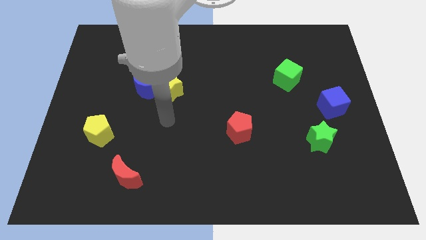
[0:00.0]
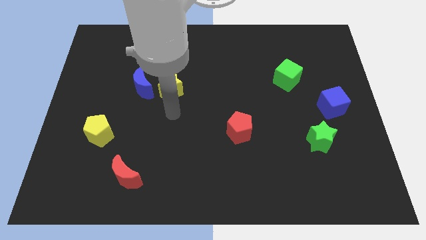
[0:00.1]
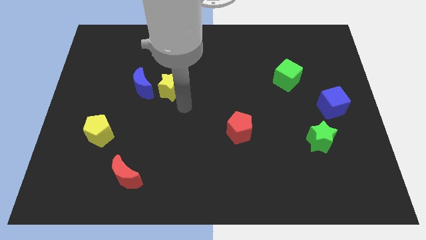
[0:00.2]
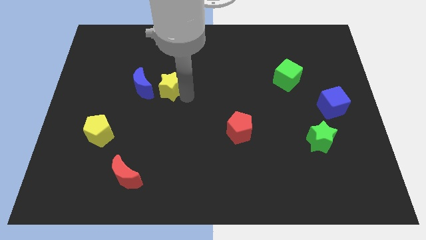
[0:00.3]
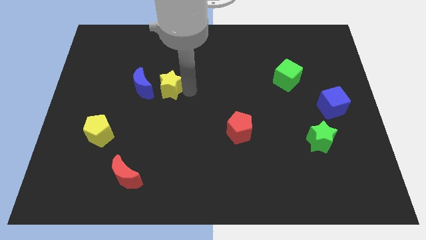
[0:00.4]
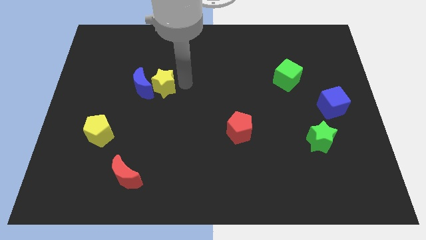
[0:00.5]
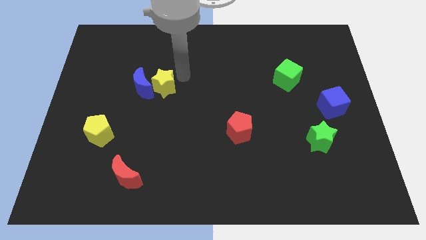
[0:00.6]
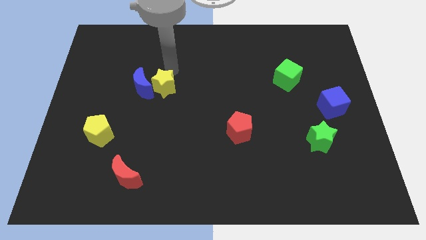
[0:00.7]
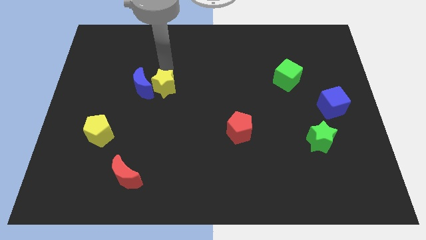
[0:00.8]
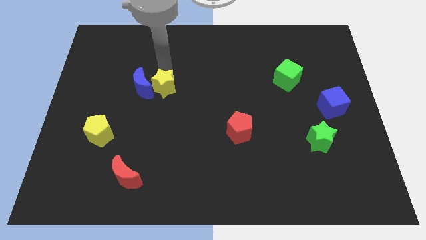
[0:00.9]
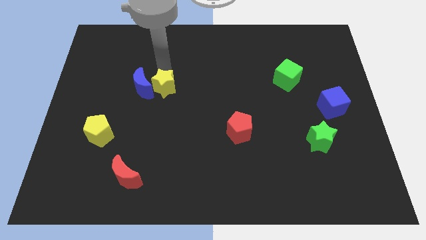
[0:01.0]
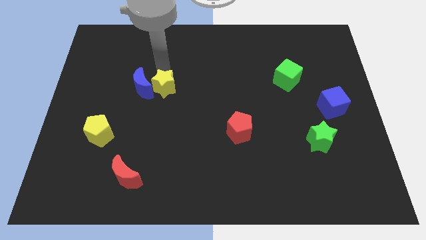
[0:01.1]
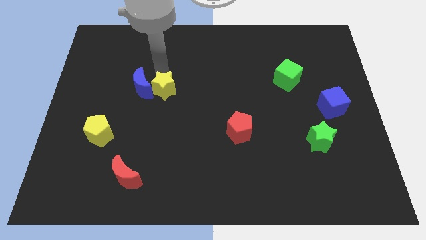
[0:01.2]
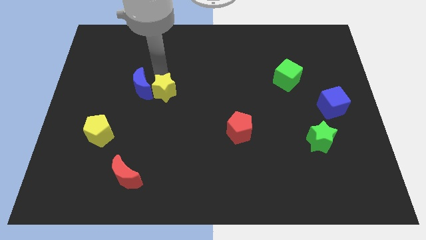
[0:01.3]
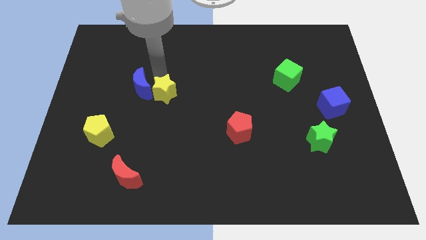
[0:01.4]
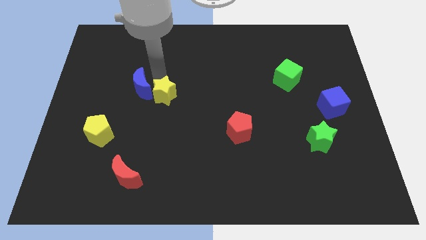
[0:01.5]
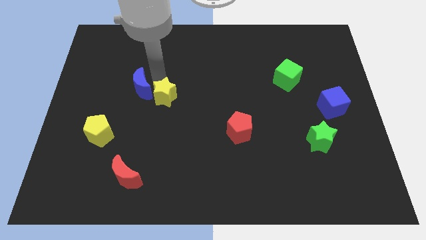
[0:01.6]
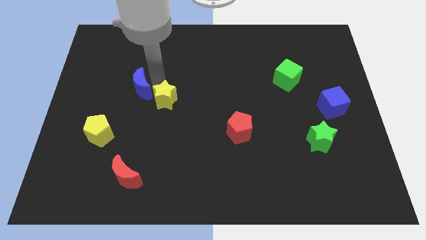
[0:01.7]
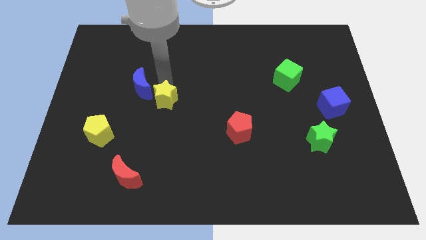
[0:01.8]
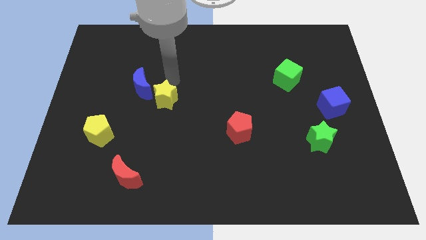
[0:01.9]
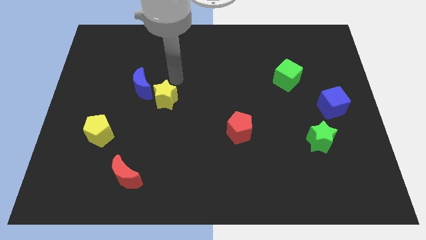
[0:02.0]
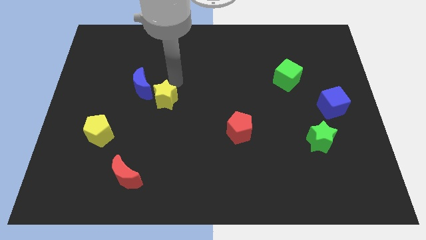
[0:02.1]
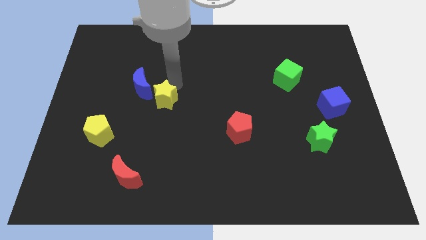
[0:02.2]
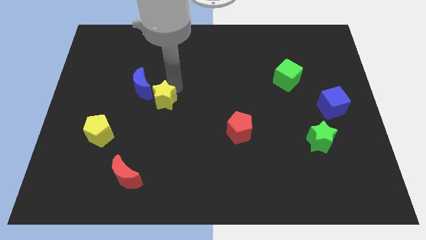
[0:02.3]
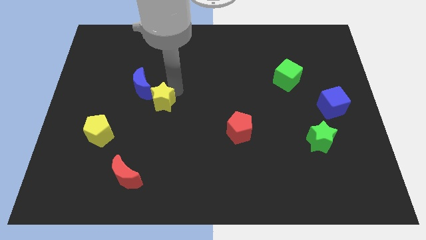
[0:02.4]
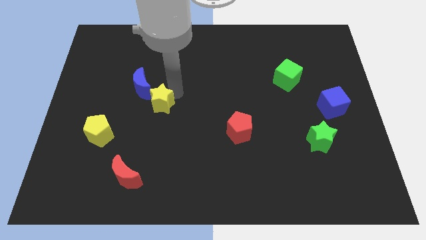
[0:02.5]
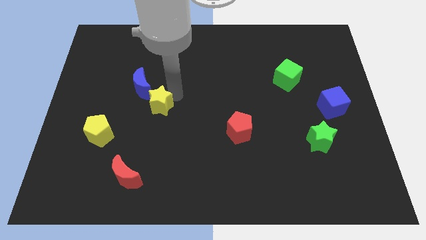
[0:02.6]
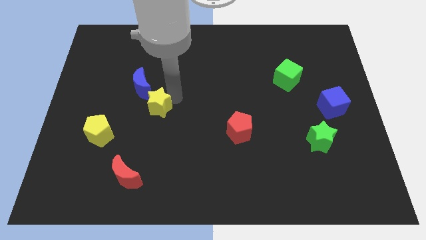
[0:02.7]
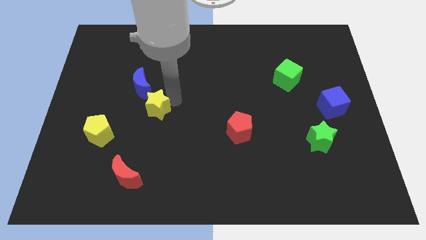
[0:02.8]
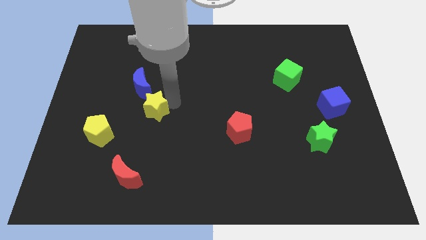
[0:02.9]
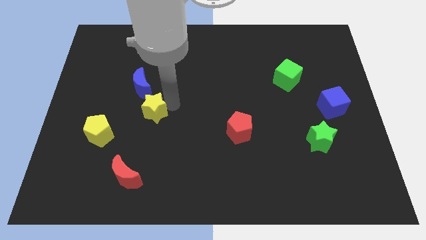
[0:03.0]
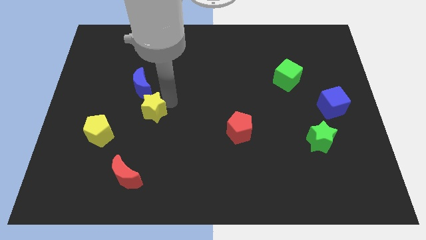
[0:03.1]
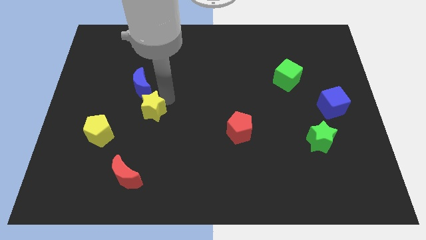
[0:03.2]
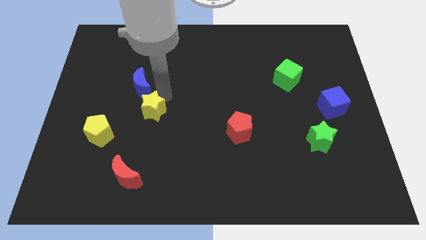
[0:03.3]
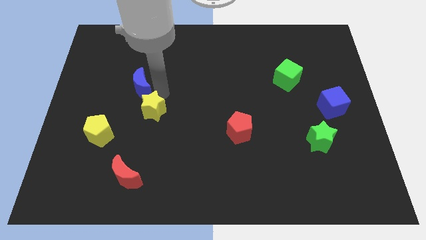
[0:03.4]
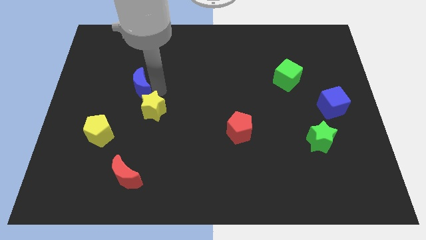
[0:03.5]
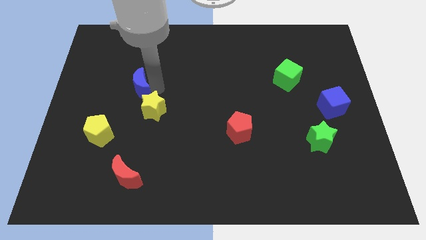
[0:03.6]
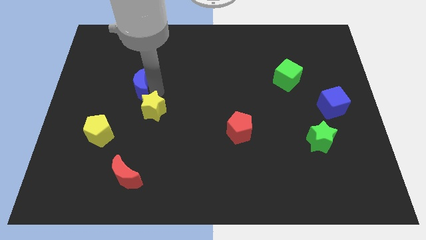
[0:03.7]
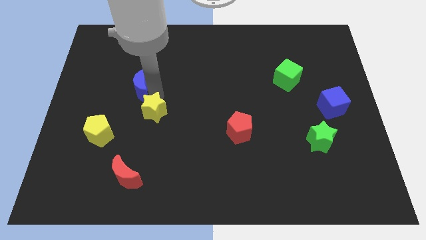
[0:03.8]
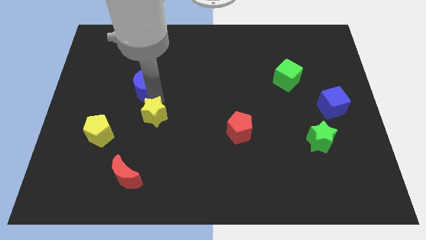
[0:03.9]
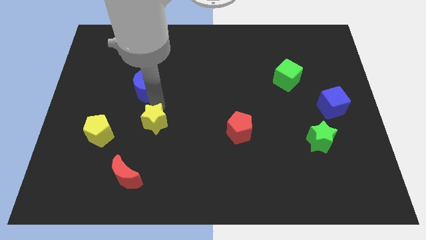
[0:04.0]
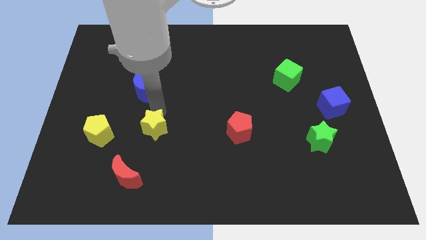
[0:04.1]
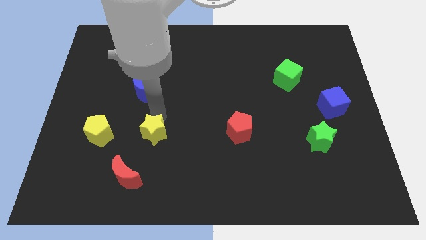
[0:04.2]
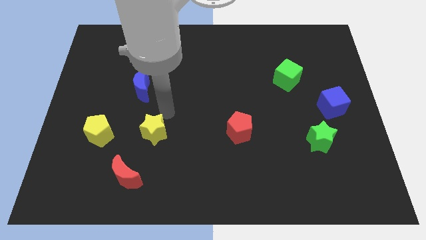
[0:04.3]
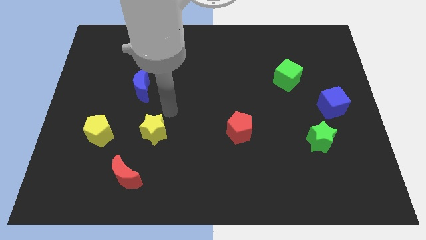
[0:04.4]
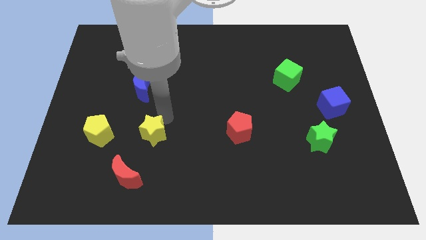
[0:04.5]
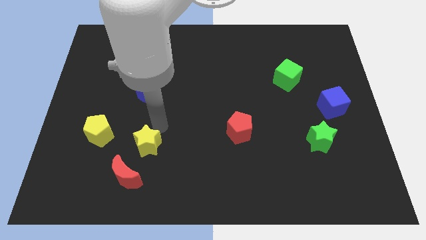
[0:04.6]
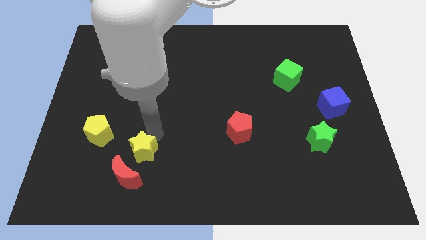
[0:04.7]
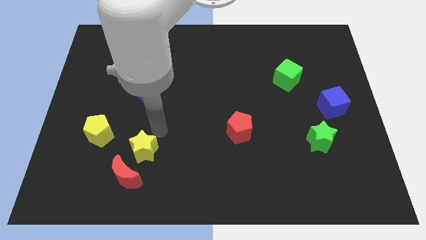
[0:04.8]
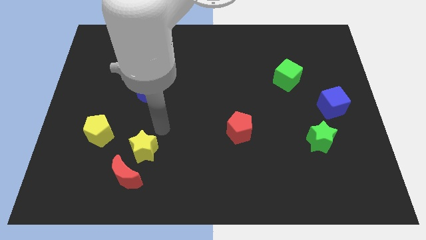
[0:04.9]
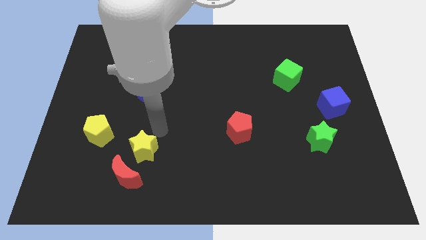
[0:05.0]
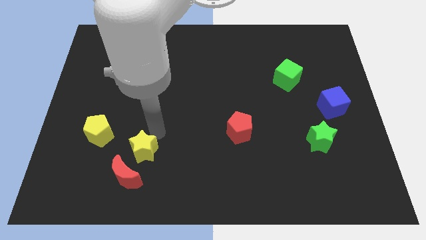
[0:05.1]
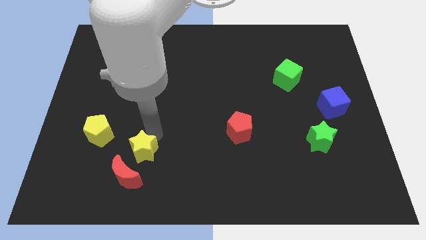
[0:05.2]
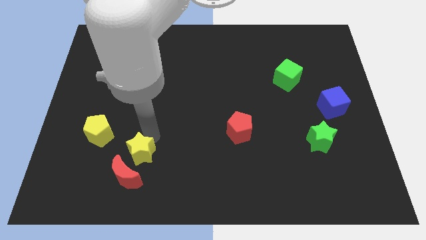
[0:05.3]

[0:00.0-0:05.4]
slide the yellow star next to the red moon
